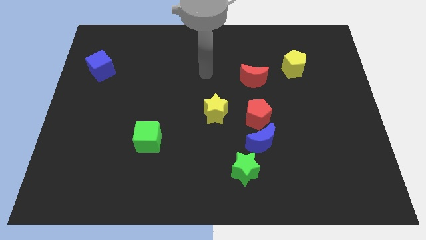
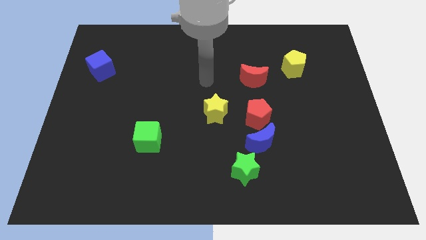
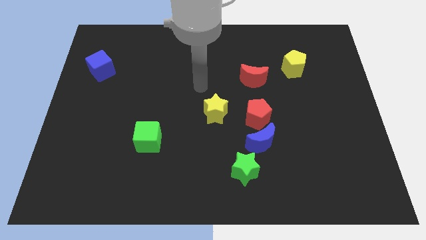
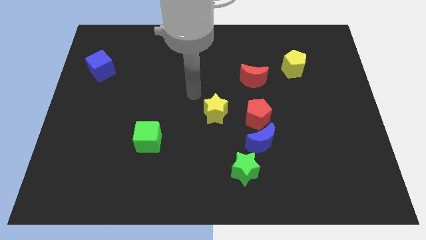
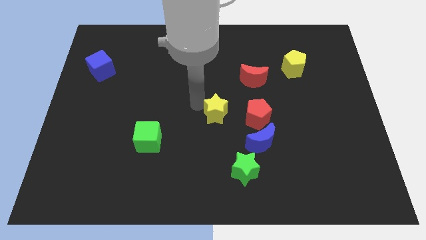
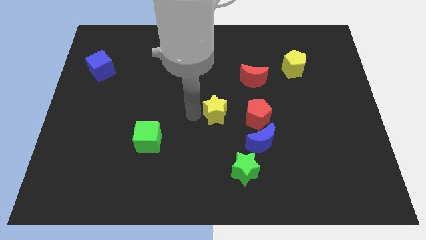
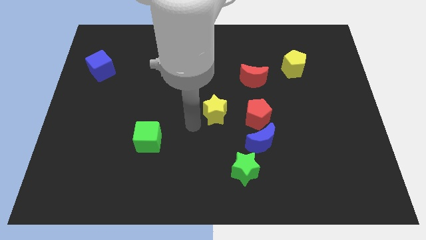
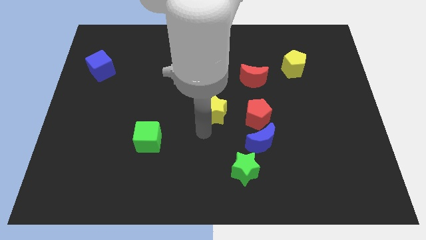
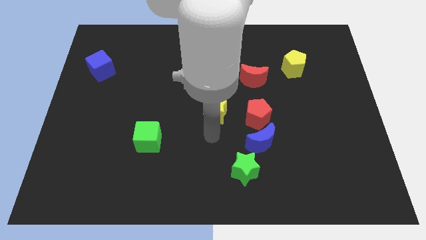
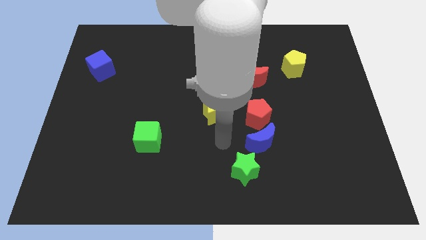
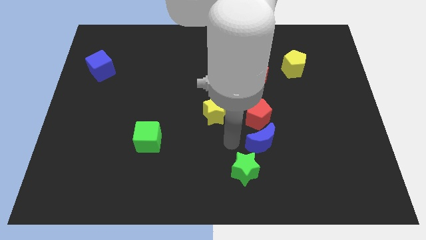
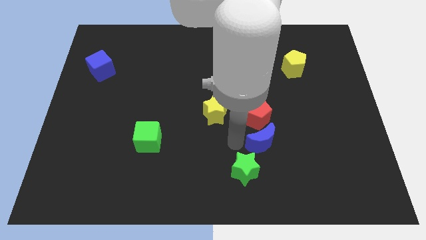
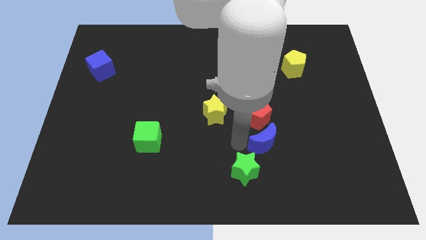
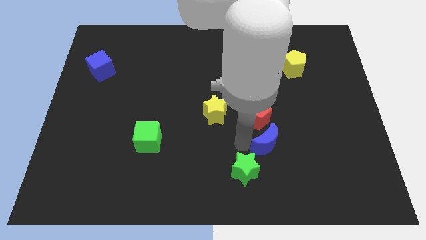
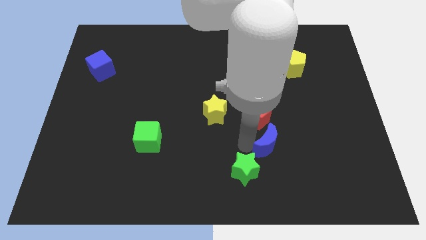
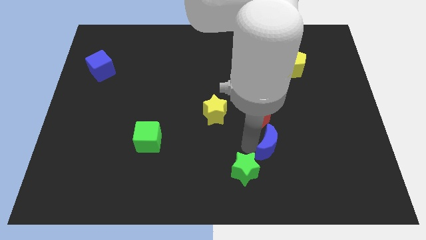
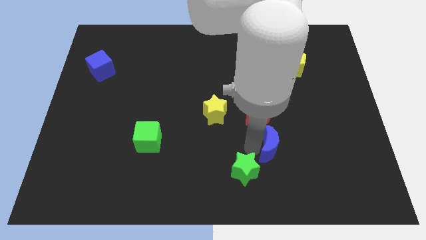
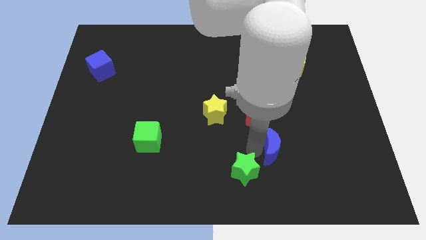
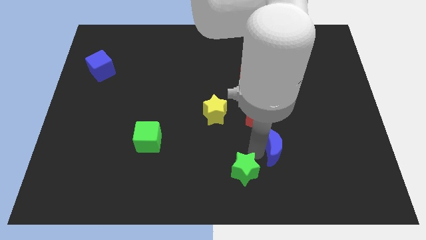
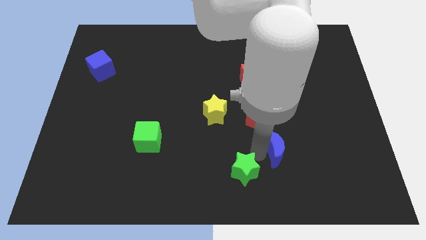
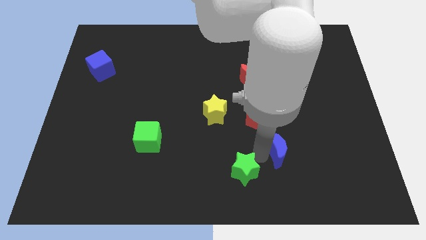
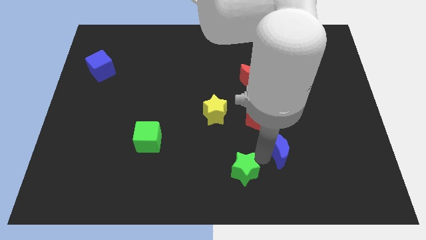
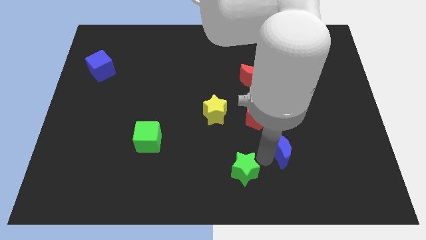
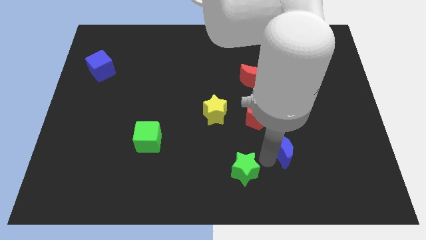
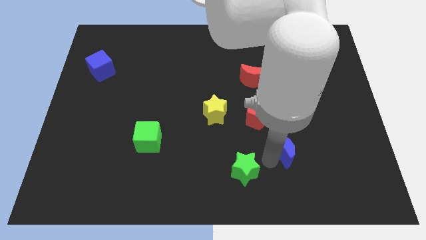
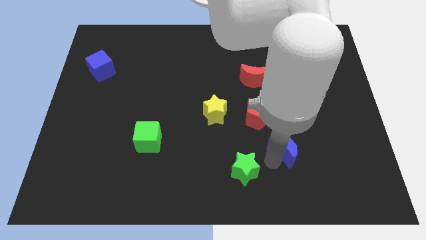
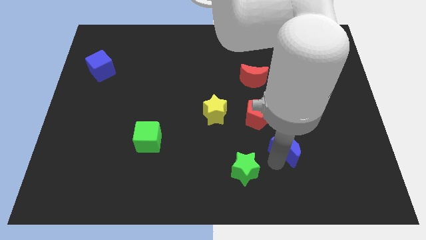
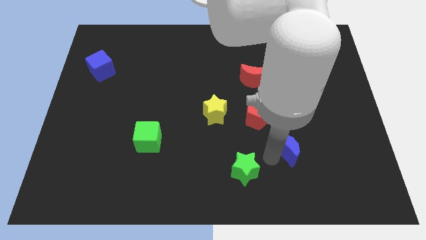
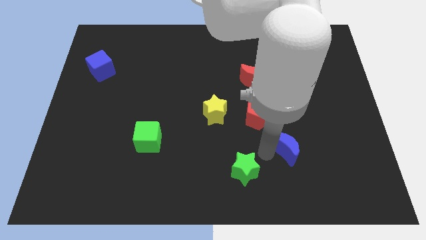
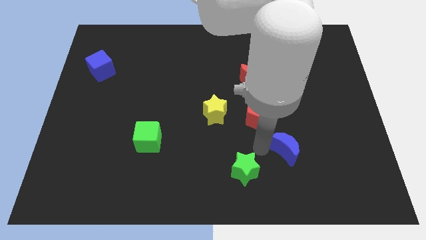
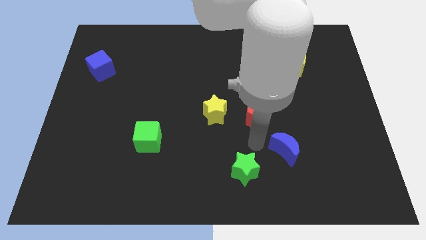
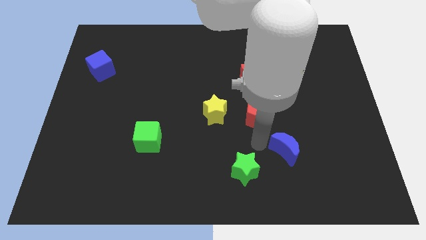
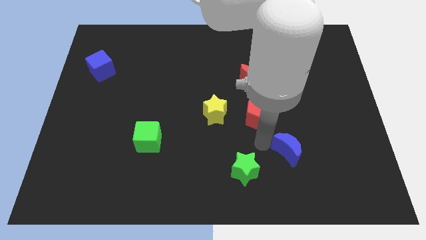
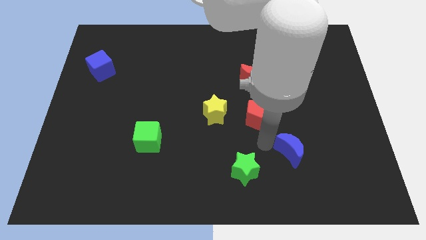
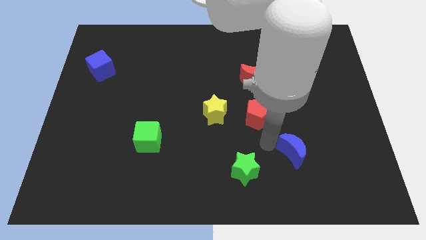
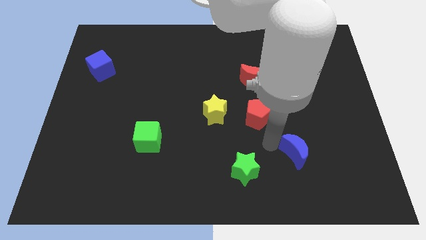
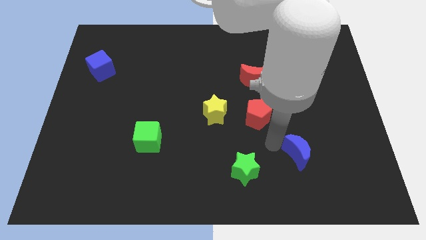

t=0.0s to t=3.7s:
move the blue moon away from the red pentagon and green star

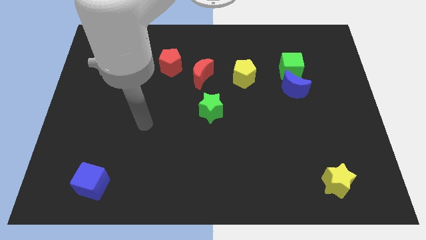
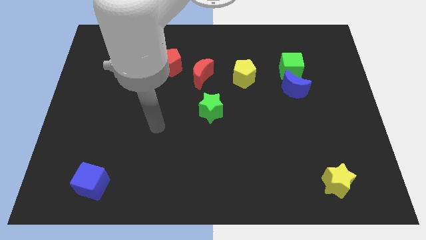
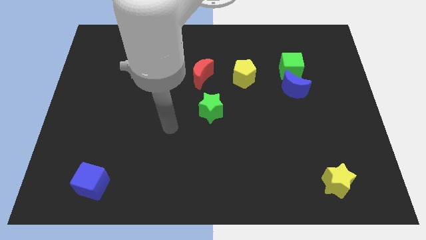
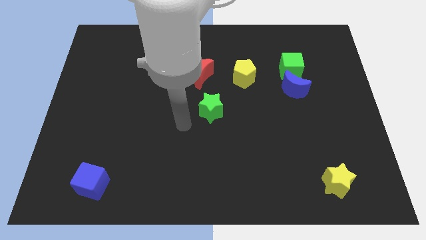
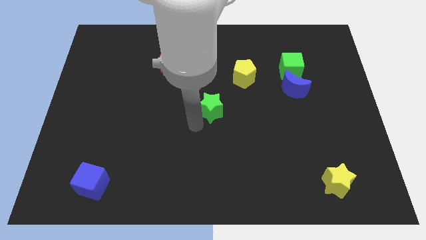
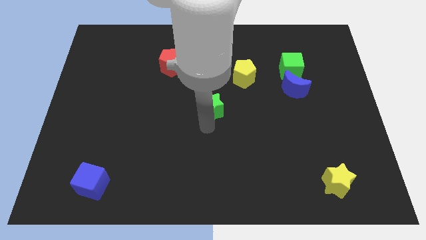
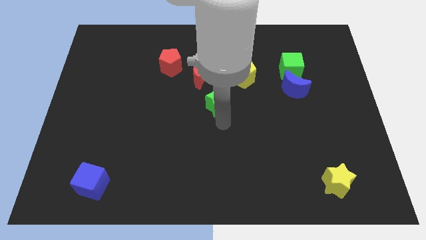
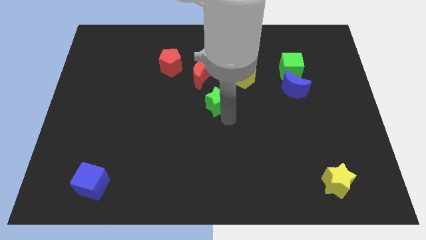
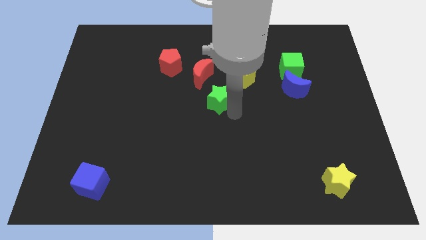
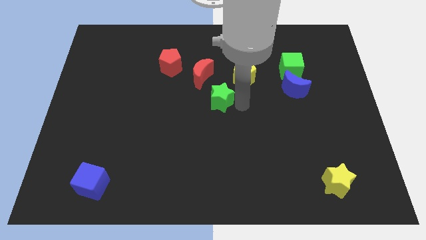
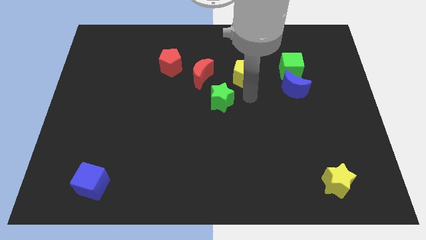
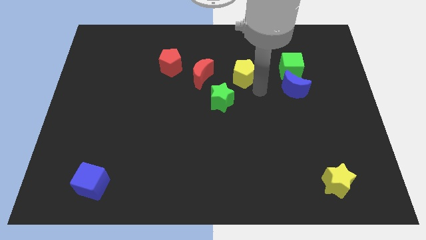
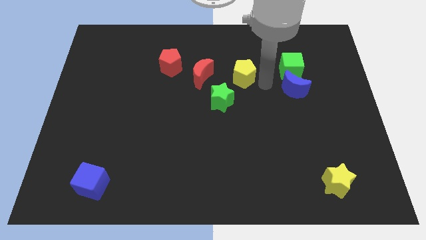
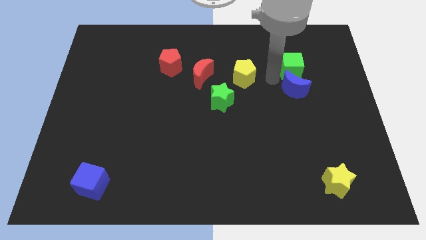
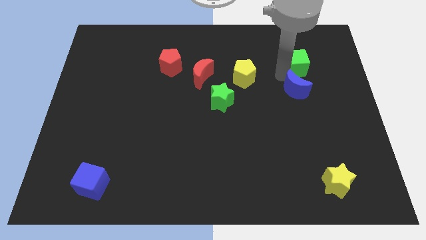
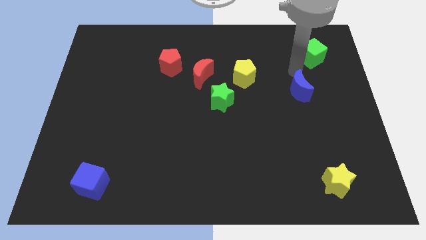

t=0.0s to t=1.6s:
move the blue moon away from the green cube

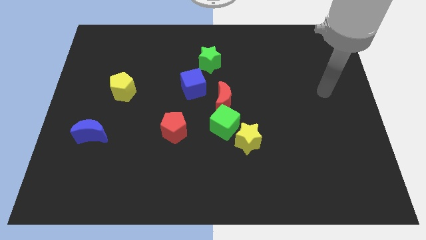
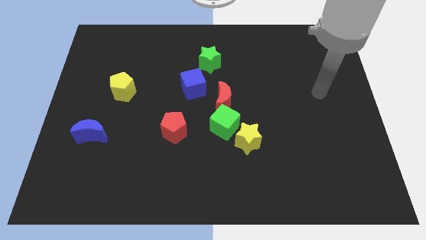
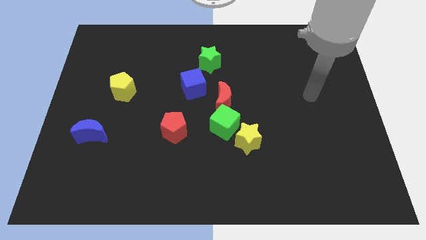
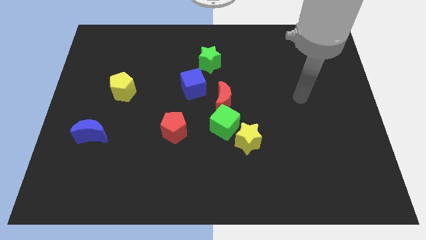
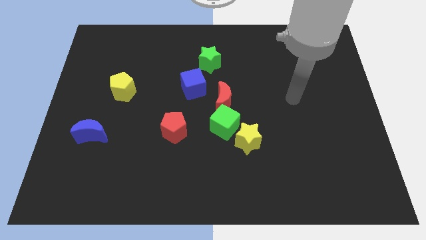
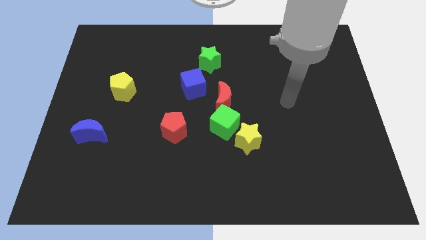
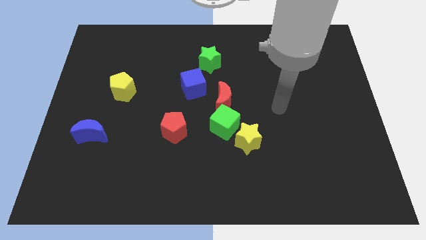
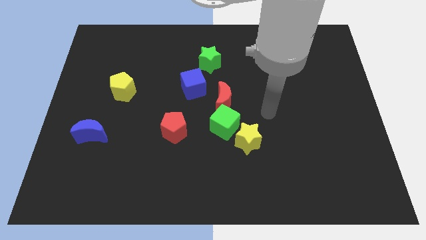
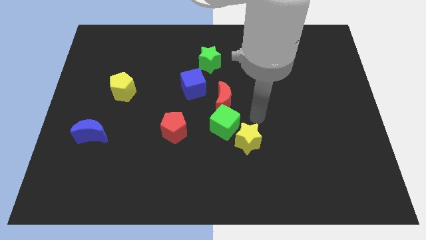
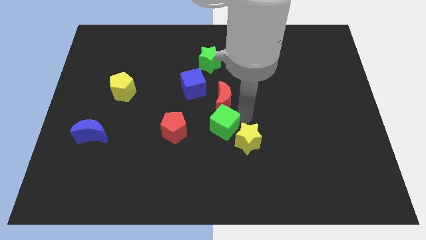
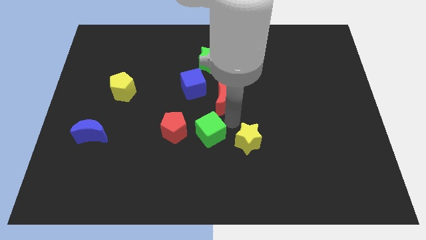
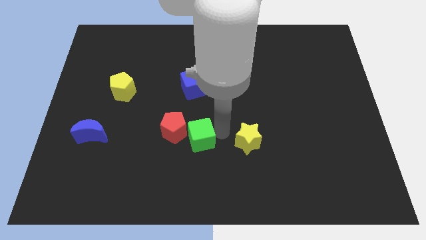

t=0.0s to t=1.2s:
pull the yellow star apart from the green cube

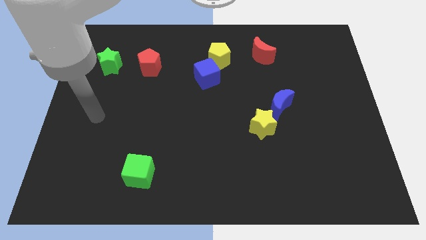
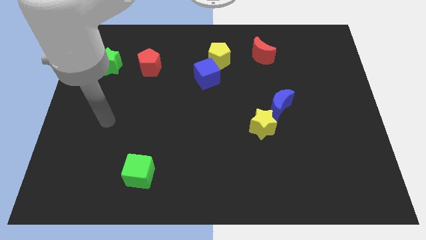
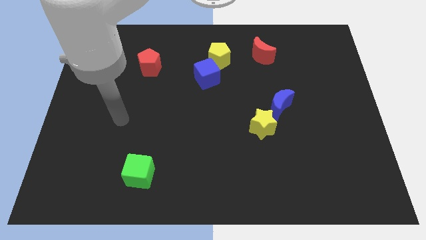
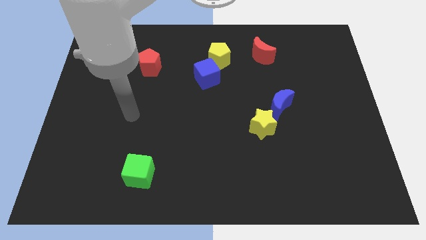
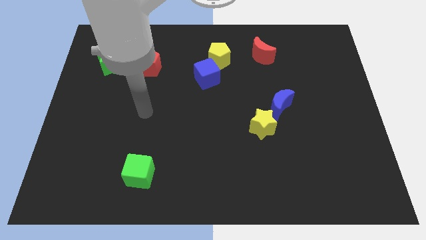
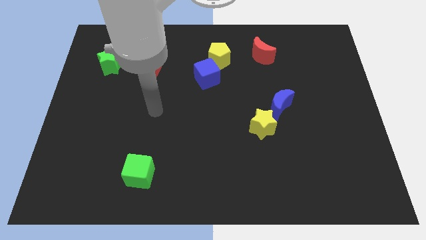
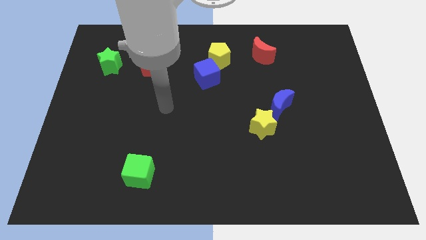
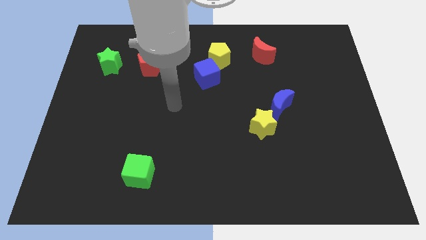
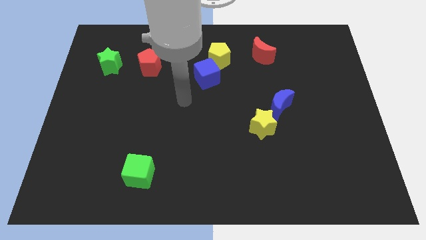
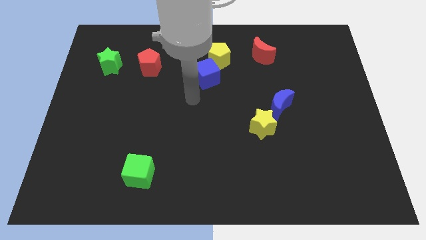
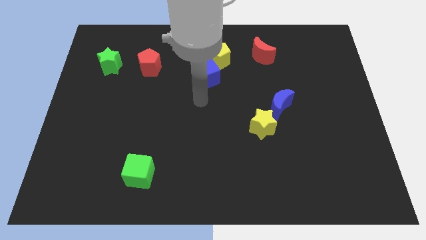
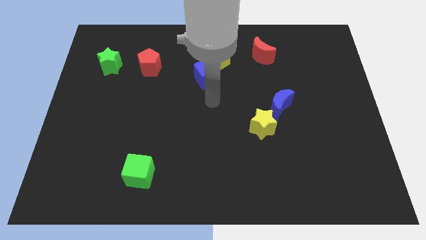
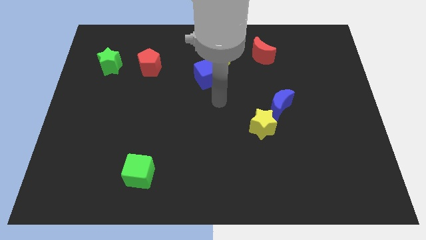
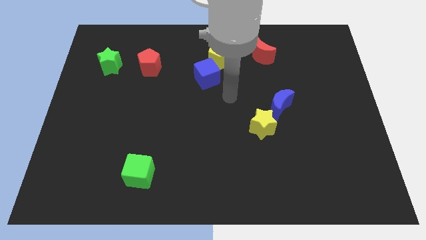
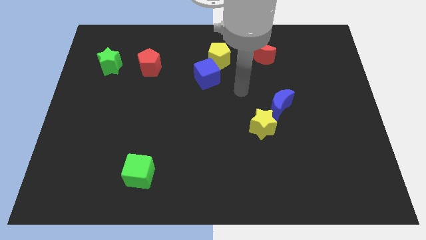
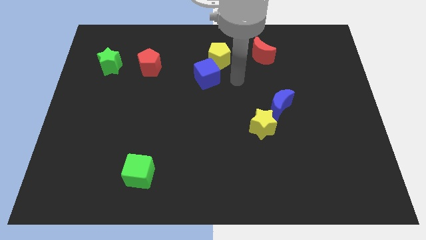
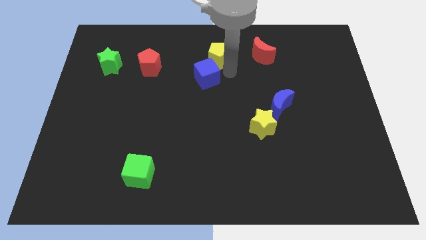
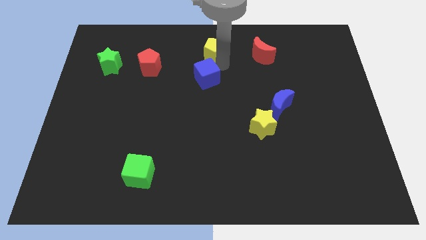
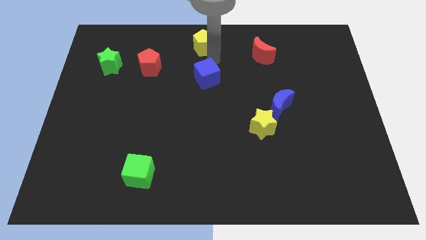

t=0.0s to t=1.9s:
separate the blue cube from the yellow pentagon

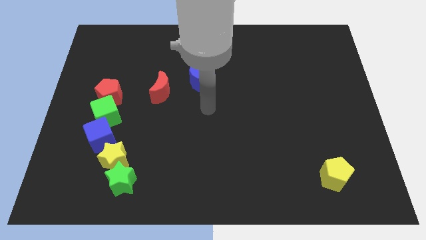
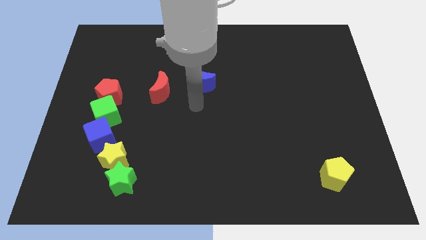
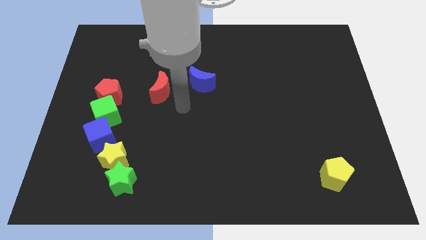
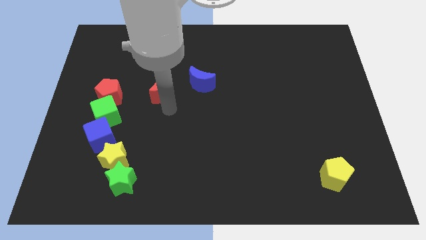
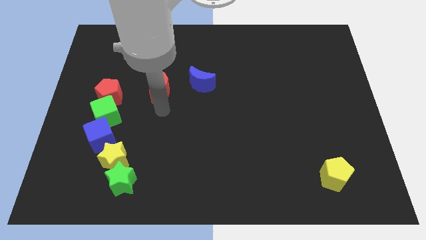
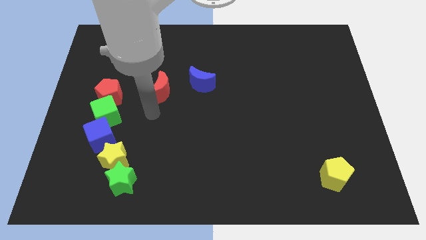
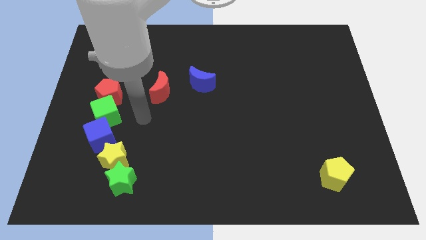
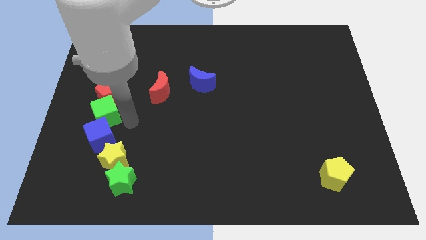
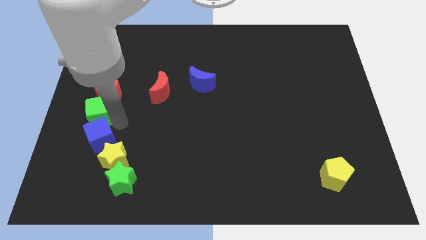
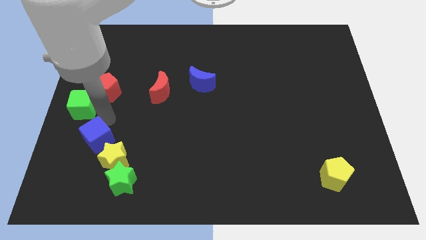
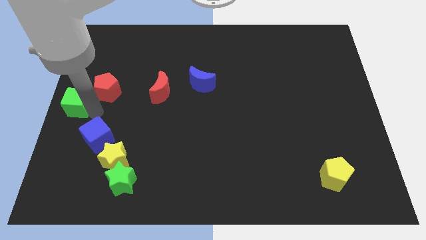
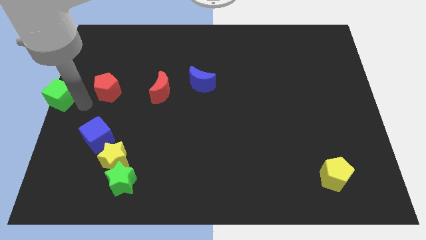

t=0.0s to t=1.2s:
separate the red pentagon from the green cube
